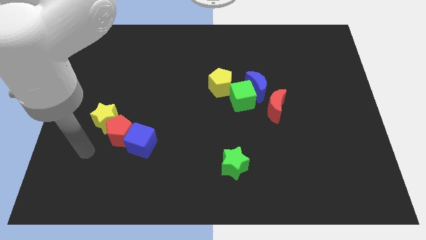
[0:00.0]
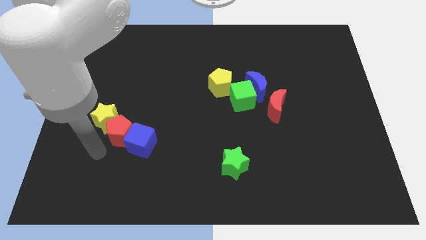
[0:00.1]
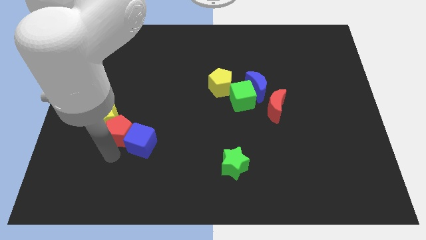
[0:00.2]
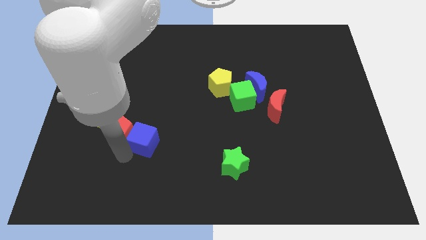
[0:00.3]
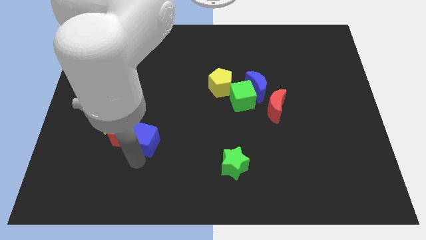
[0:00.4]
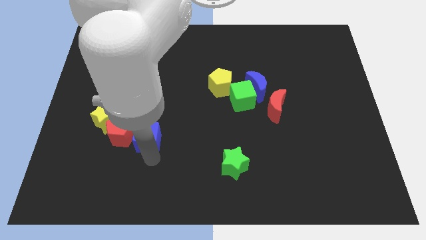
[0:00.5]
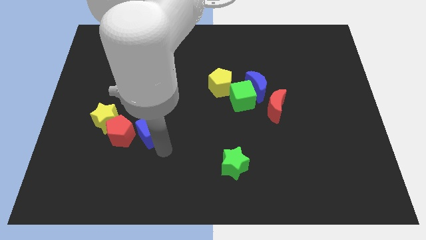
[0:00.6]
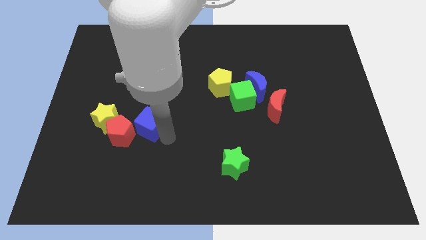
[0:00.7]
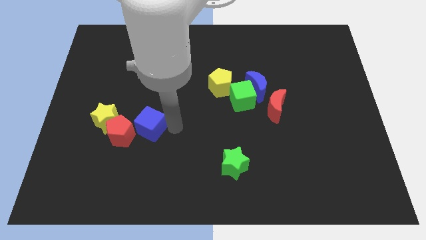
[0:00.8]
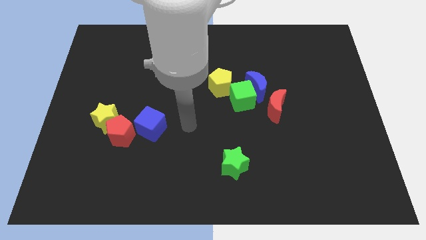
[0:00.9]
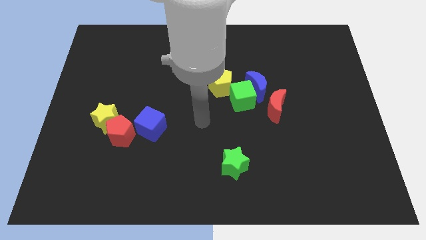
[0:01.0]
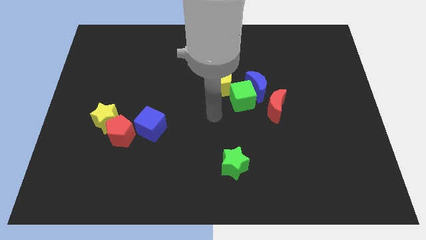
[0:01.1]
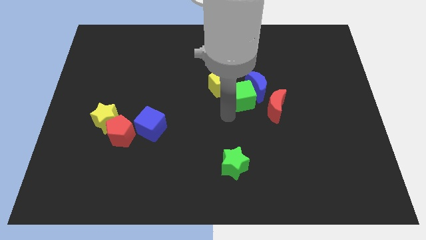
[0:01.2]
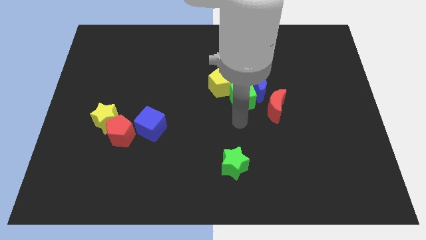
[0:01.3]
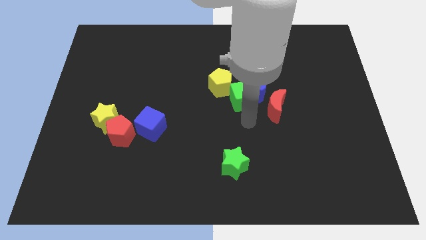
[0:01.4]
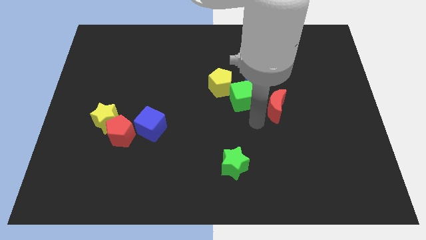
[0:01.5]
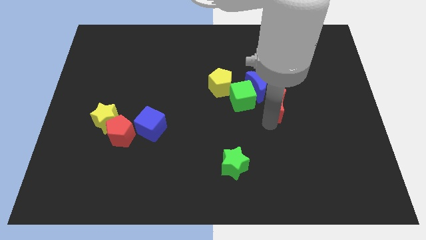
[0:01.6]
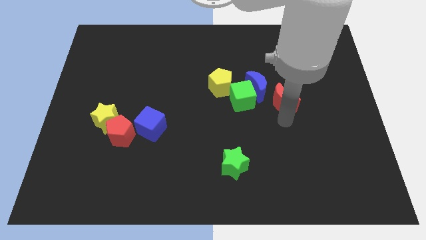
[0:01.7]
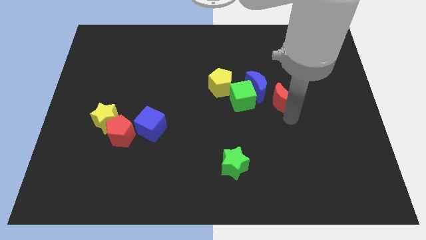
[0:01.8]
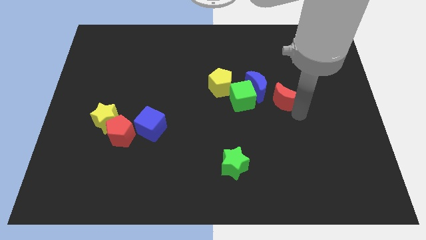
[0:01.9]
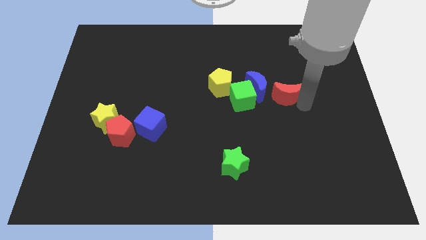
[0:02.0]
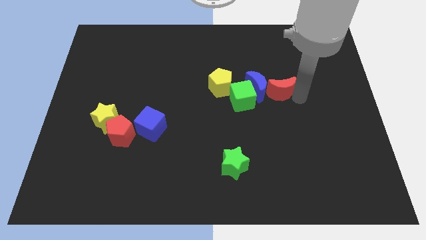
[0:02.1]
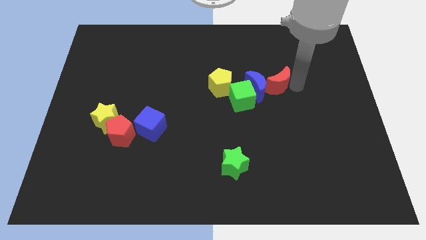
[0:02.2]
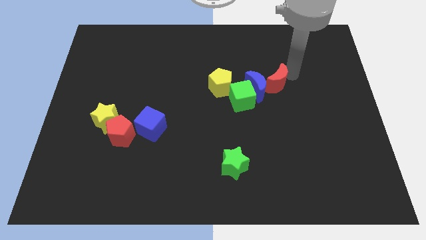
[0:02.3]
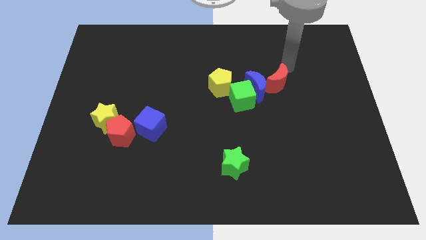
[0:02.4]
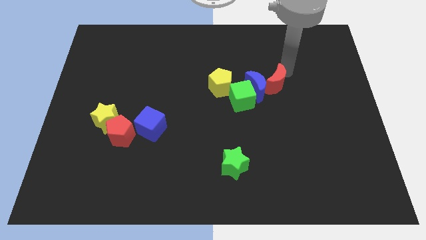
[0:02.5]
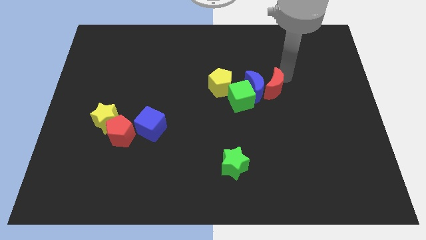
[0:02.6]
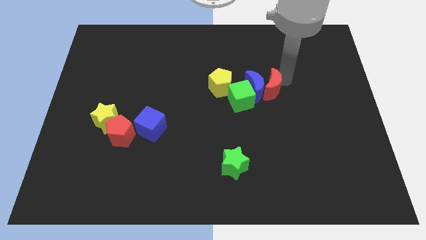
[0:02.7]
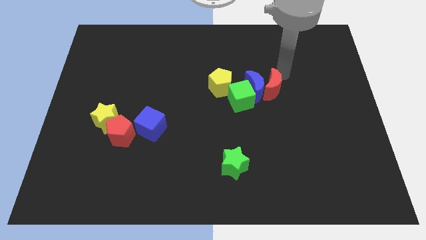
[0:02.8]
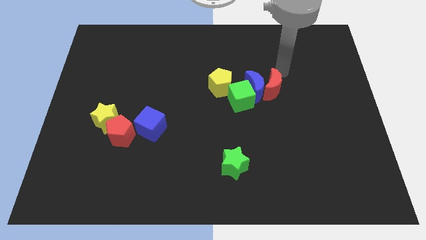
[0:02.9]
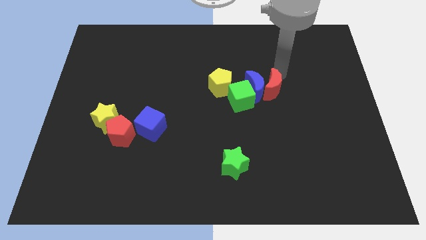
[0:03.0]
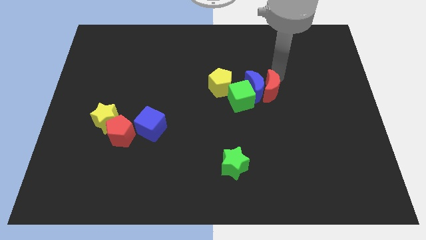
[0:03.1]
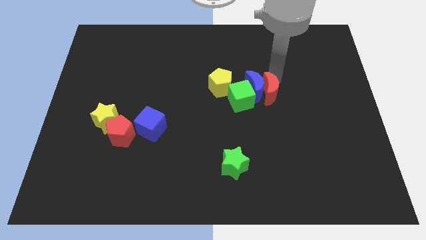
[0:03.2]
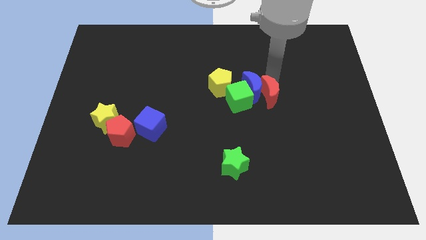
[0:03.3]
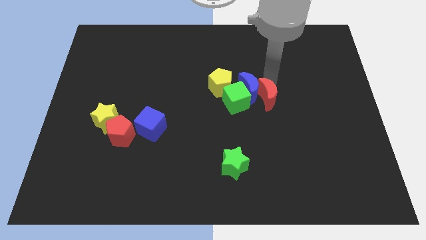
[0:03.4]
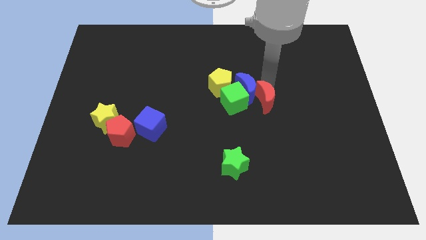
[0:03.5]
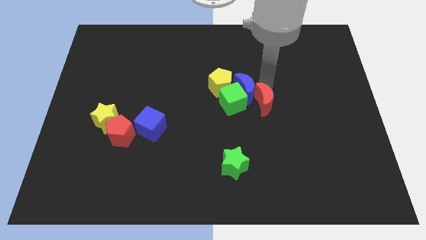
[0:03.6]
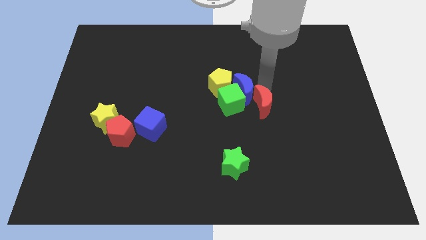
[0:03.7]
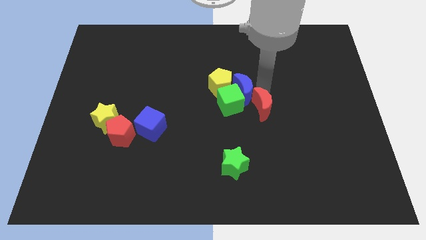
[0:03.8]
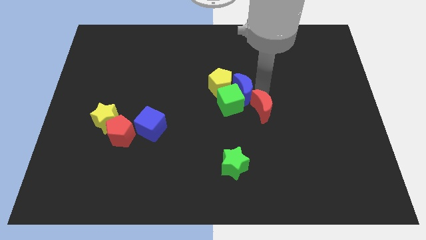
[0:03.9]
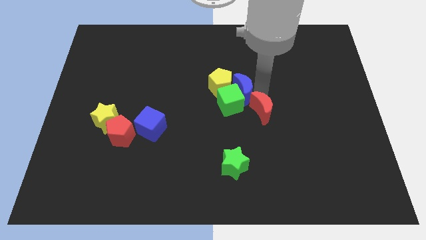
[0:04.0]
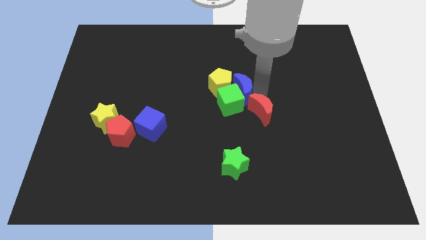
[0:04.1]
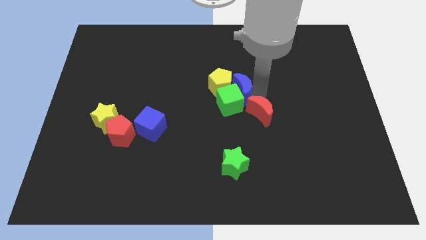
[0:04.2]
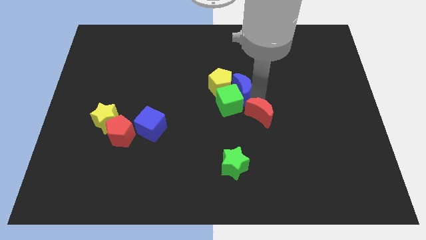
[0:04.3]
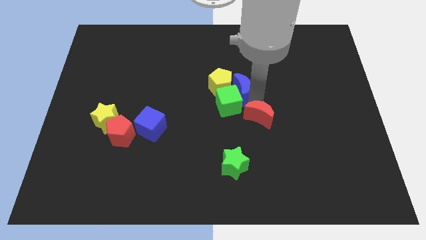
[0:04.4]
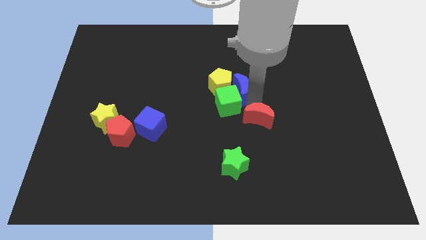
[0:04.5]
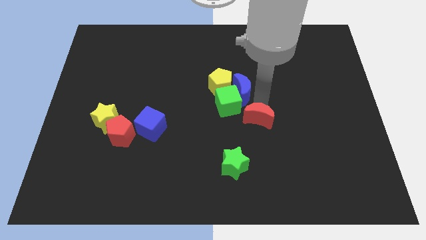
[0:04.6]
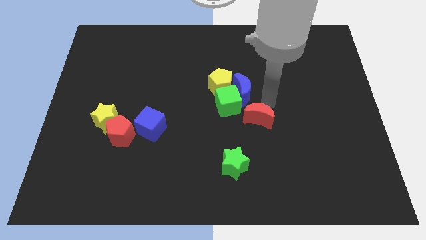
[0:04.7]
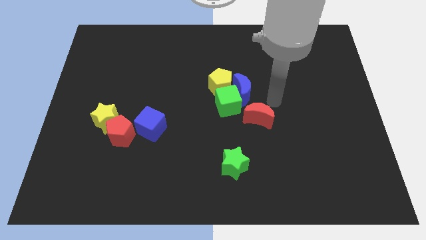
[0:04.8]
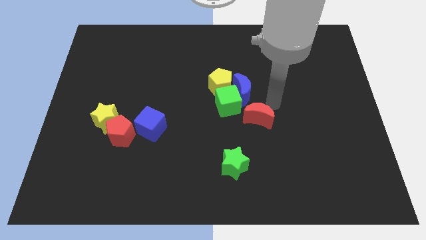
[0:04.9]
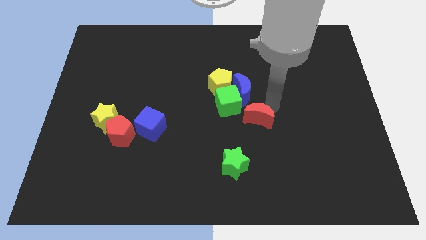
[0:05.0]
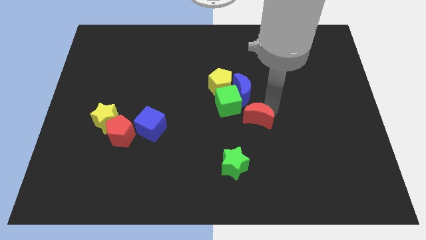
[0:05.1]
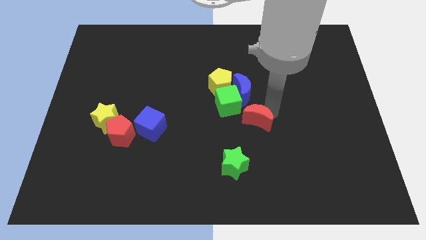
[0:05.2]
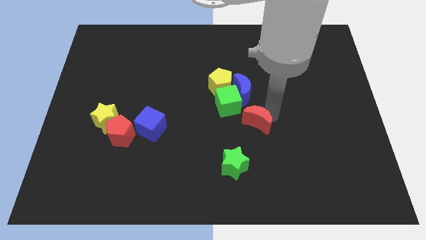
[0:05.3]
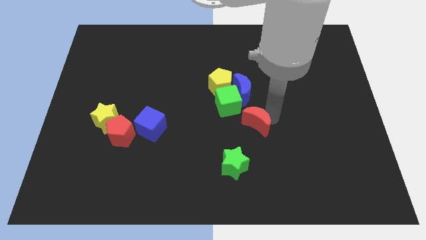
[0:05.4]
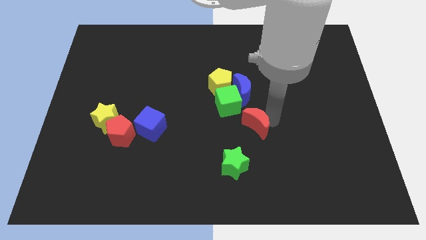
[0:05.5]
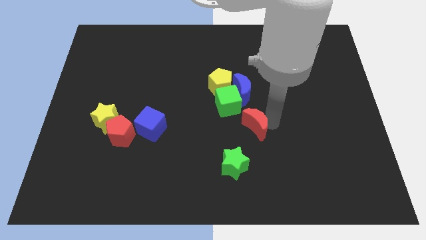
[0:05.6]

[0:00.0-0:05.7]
slightly push the red moon down and to the left

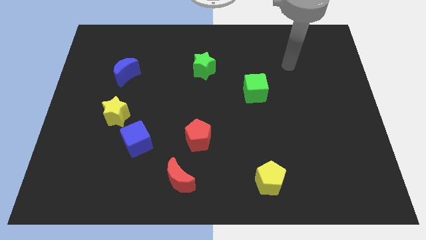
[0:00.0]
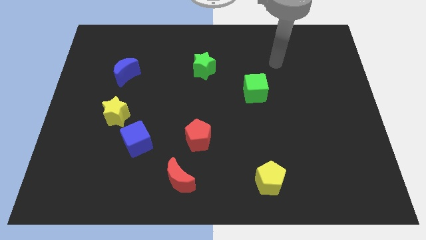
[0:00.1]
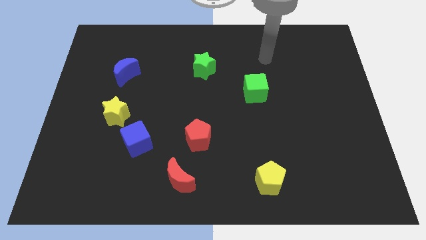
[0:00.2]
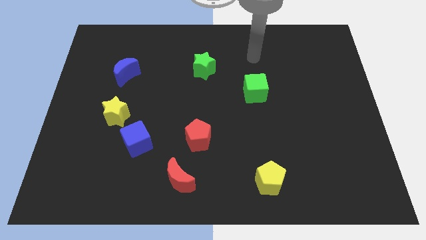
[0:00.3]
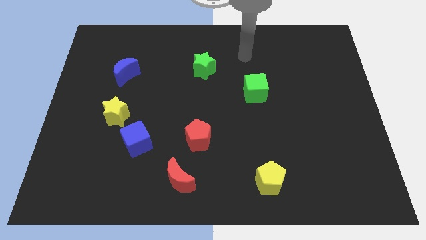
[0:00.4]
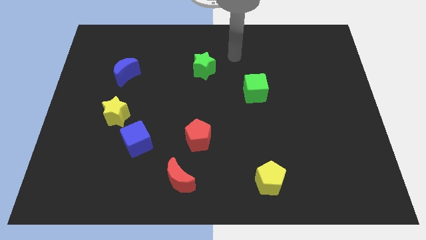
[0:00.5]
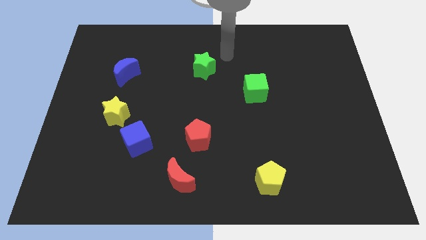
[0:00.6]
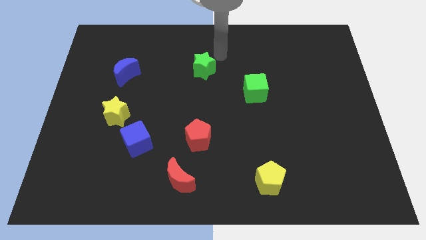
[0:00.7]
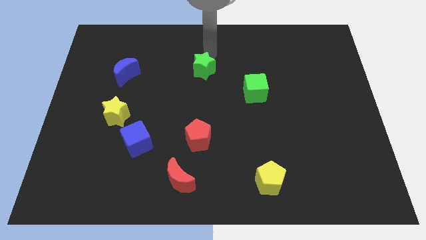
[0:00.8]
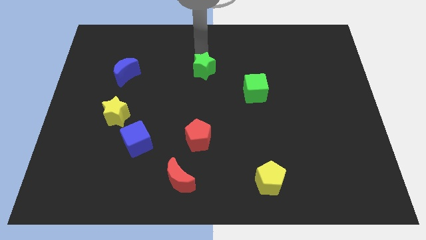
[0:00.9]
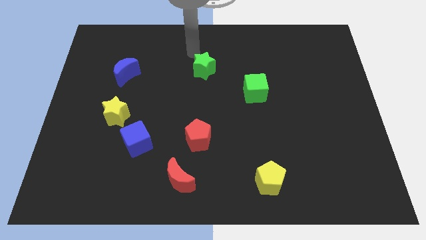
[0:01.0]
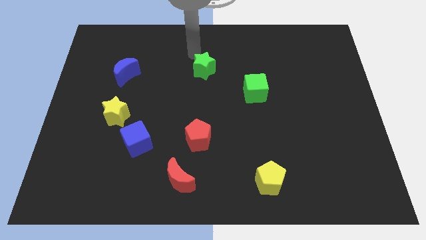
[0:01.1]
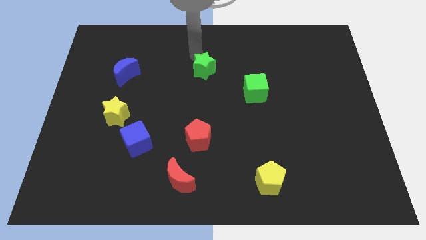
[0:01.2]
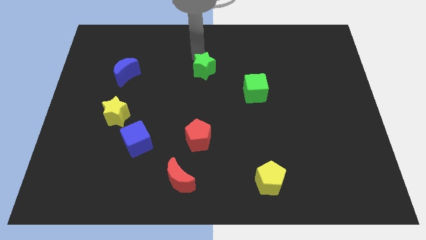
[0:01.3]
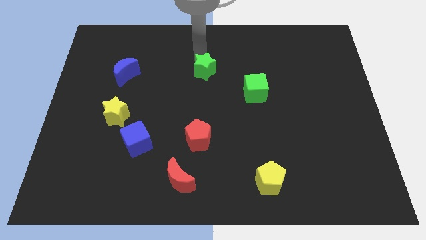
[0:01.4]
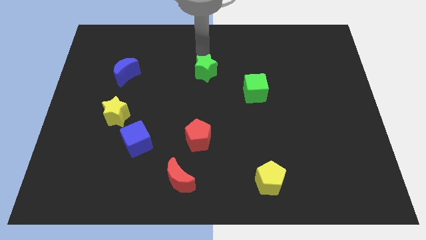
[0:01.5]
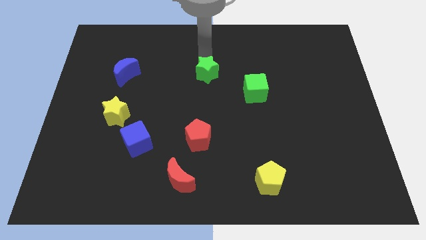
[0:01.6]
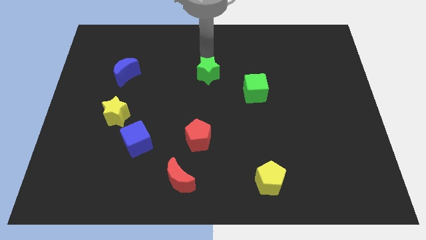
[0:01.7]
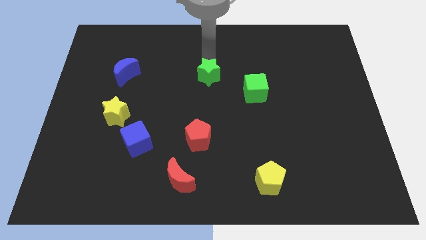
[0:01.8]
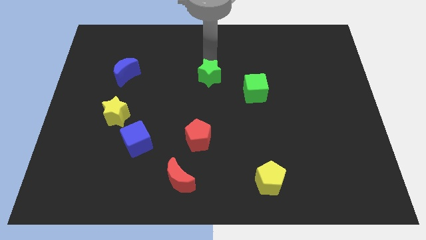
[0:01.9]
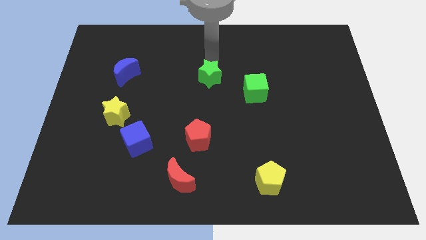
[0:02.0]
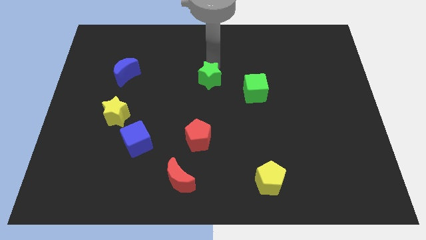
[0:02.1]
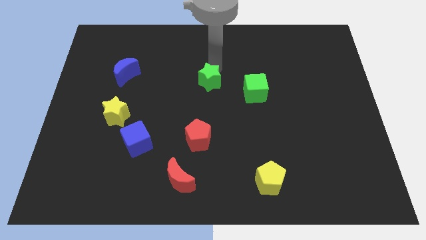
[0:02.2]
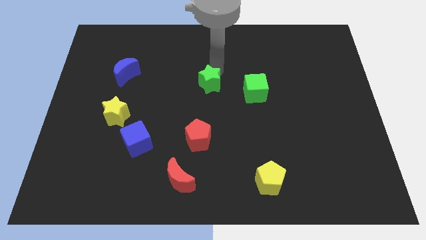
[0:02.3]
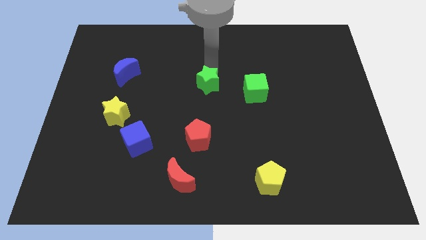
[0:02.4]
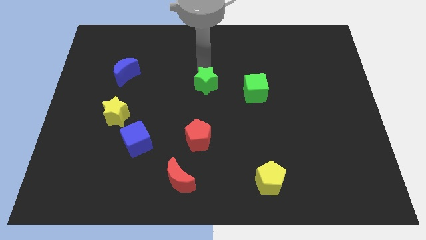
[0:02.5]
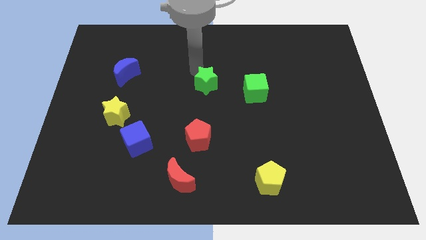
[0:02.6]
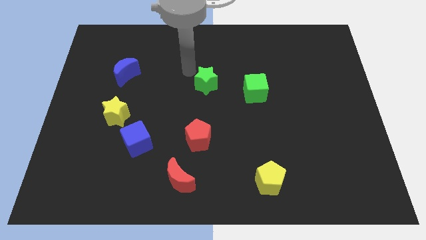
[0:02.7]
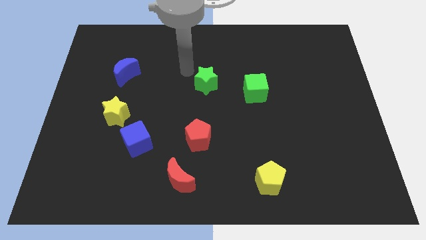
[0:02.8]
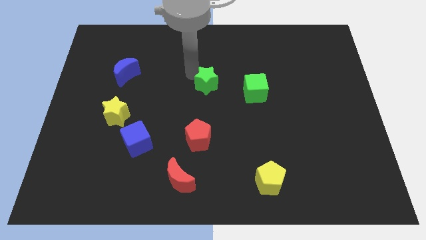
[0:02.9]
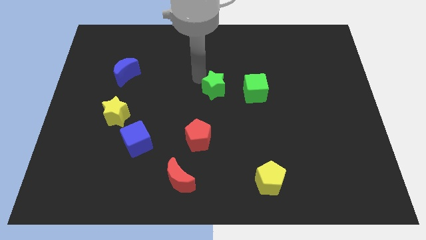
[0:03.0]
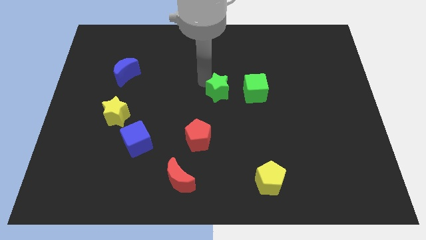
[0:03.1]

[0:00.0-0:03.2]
slightly slide the green star down and to the right diagonally
